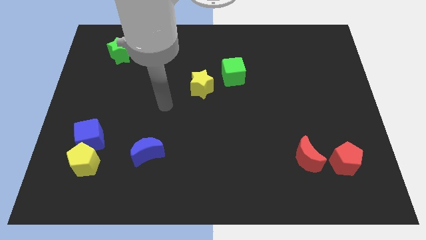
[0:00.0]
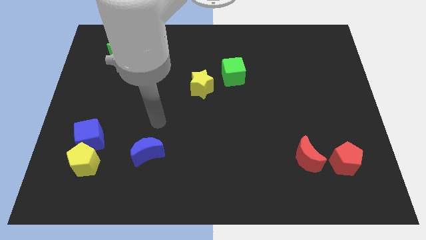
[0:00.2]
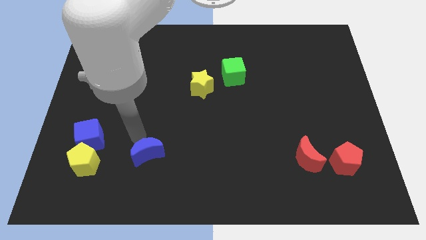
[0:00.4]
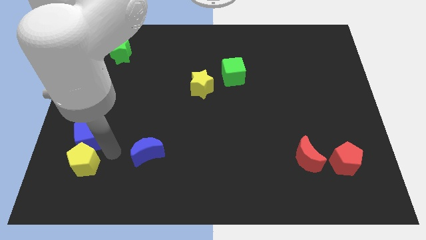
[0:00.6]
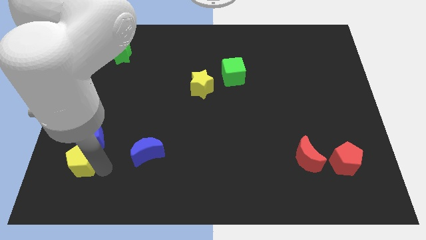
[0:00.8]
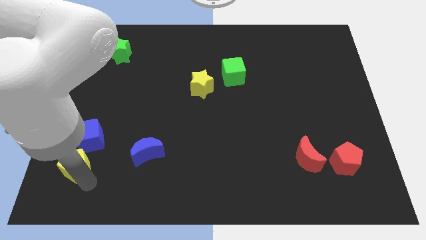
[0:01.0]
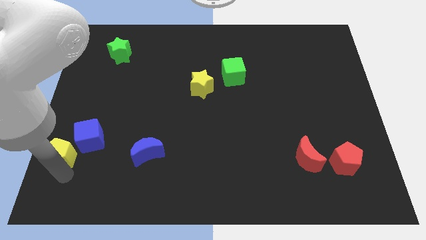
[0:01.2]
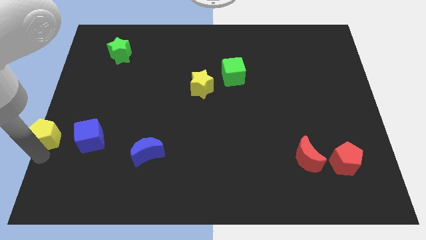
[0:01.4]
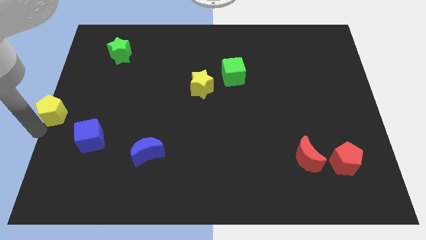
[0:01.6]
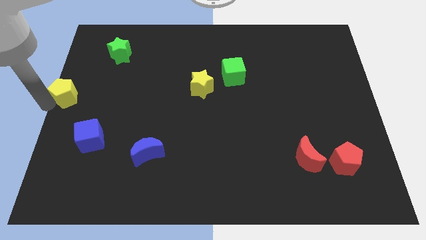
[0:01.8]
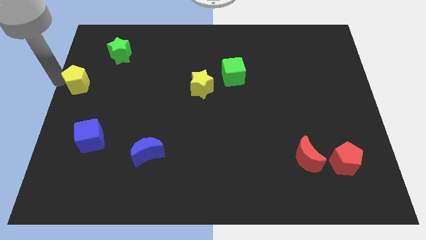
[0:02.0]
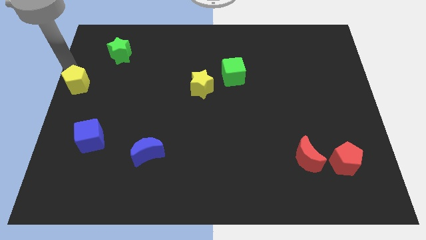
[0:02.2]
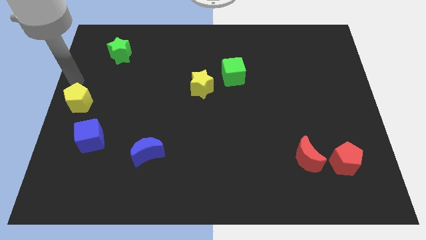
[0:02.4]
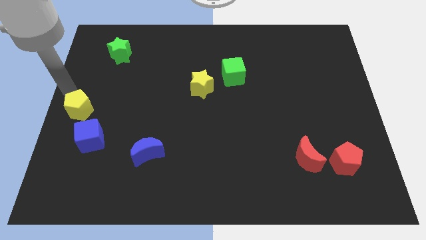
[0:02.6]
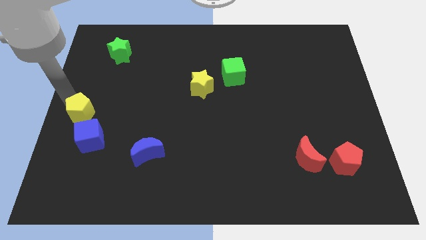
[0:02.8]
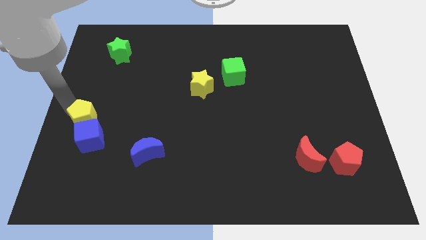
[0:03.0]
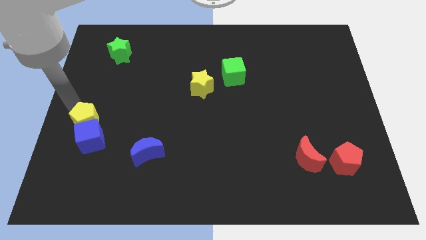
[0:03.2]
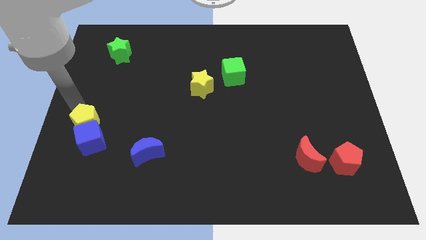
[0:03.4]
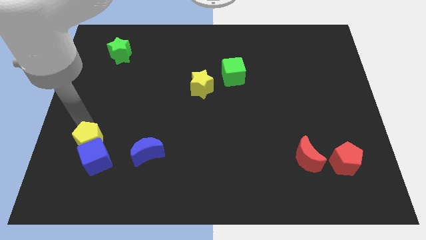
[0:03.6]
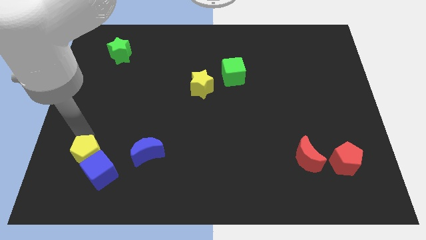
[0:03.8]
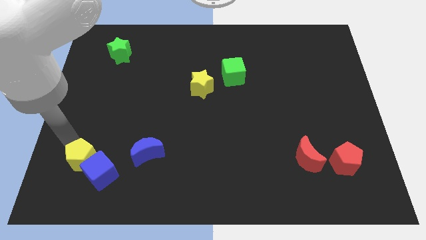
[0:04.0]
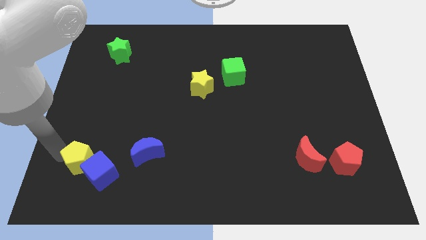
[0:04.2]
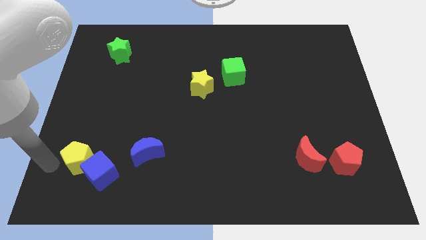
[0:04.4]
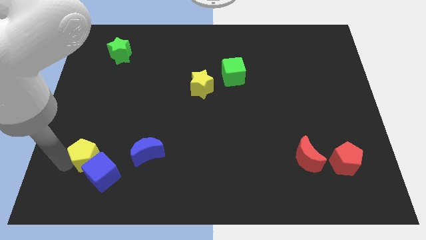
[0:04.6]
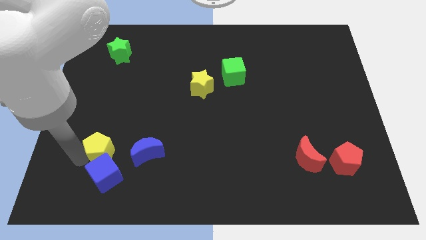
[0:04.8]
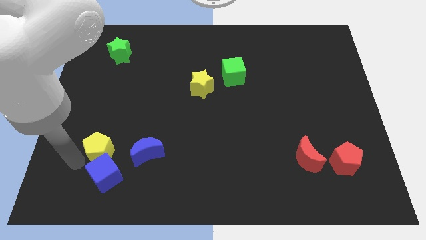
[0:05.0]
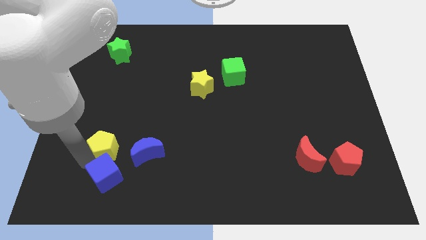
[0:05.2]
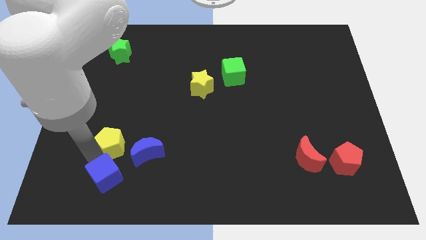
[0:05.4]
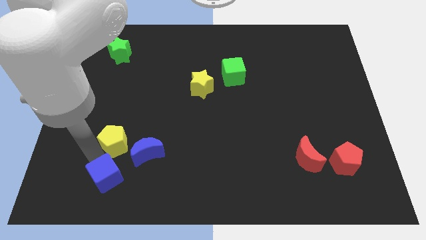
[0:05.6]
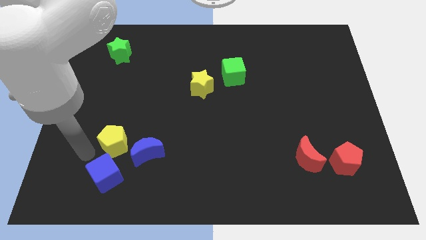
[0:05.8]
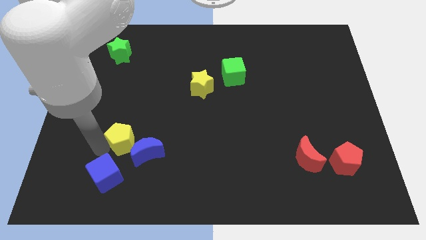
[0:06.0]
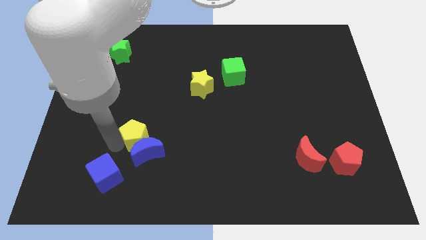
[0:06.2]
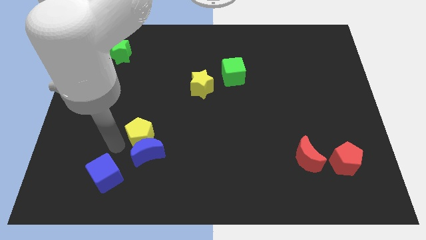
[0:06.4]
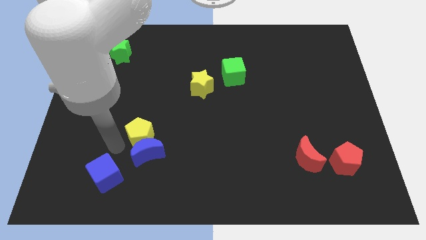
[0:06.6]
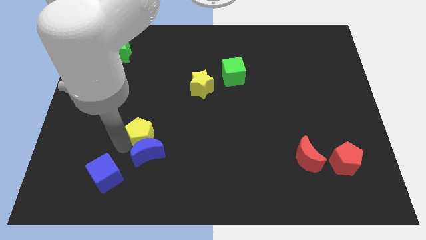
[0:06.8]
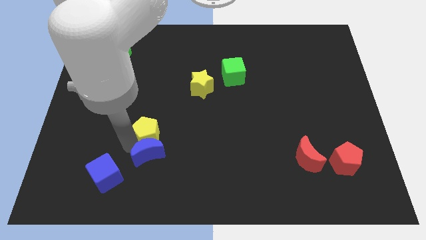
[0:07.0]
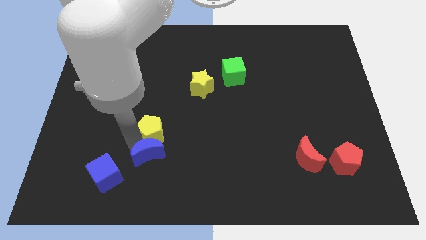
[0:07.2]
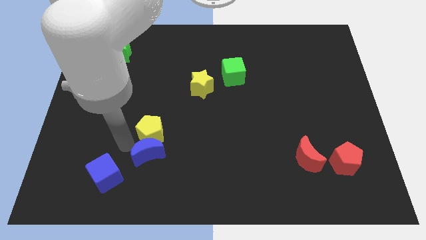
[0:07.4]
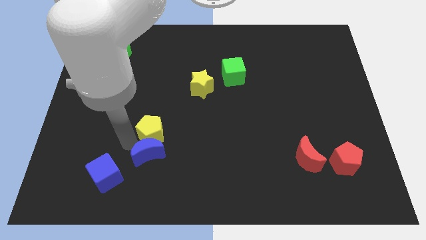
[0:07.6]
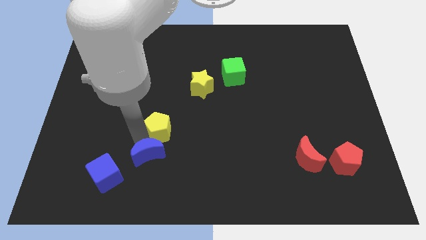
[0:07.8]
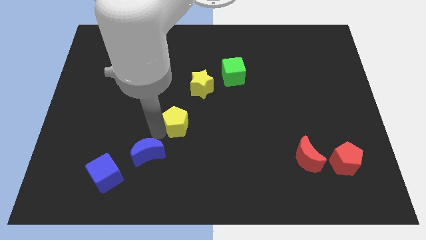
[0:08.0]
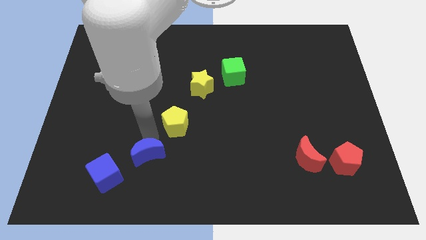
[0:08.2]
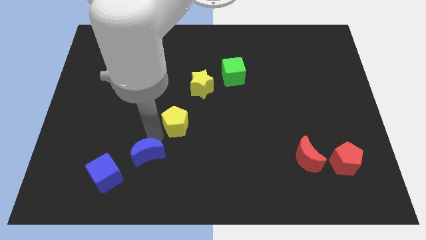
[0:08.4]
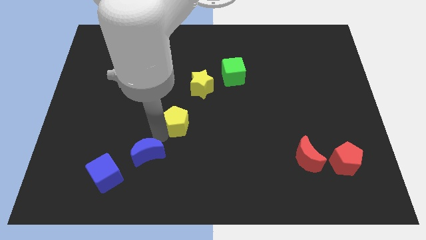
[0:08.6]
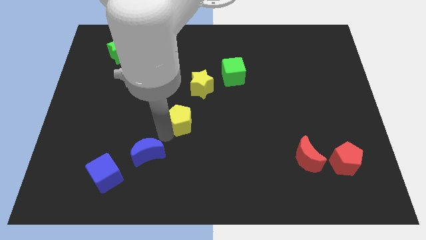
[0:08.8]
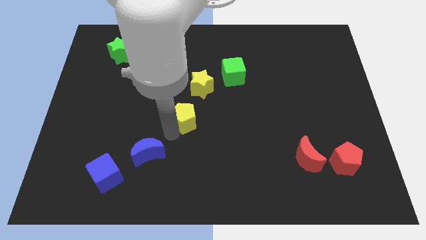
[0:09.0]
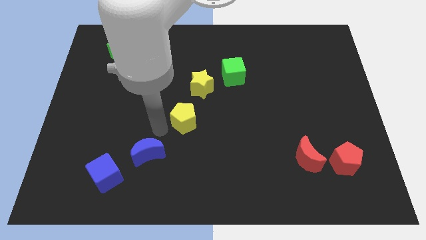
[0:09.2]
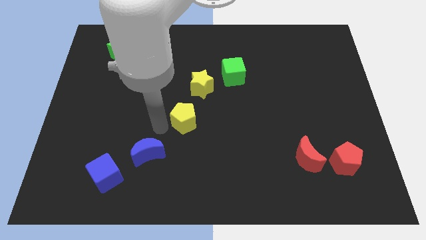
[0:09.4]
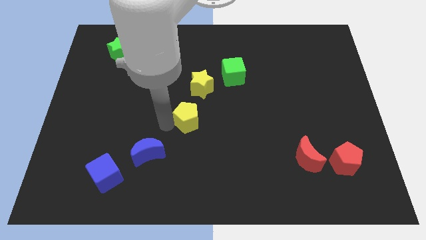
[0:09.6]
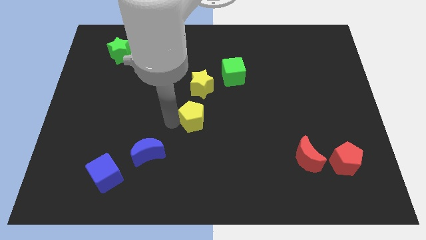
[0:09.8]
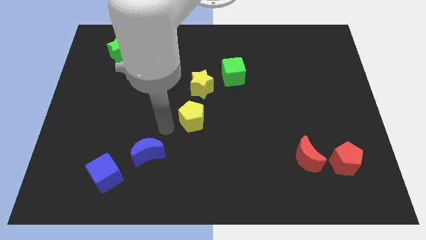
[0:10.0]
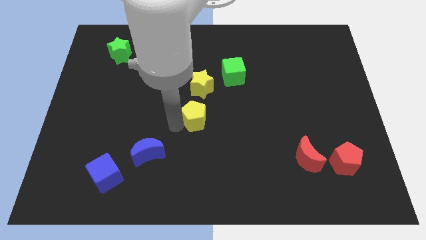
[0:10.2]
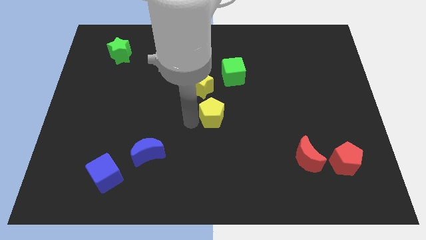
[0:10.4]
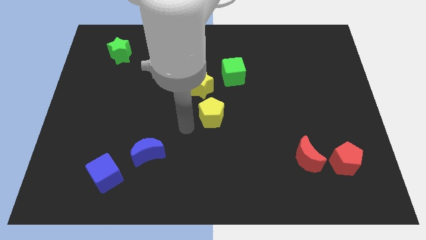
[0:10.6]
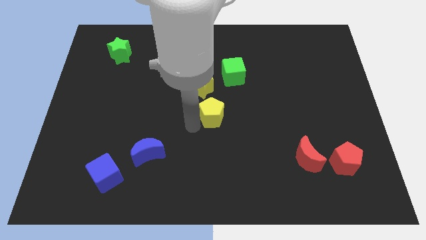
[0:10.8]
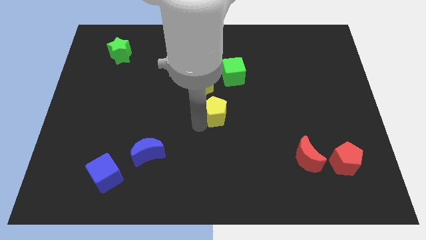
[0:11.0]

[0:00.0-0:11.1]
push the yellow pentagon to the bottom of the green cube

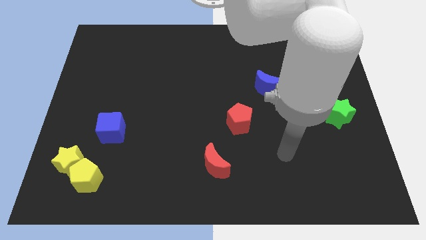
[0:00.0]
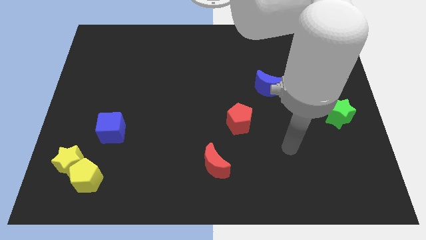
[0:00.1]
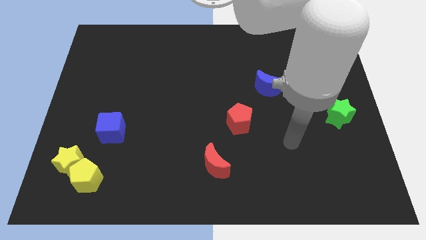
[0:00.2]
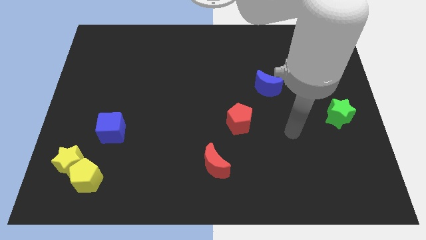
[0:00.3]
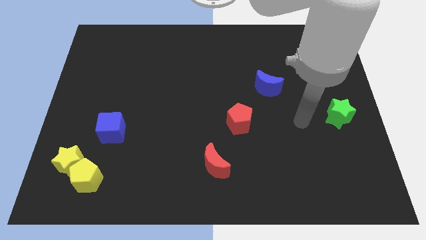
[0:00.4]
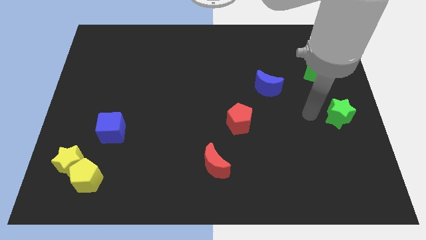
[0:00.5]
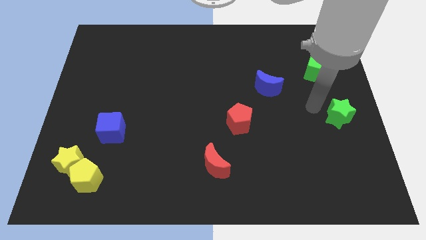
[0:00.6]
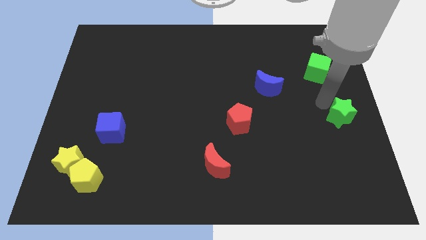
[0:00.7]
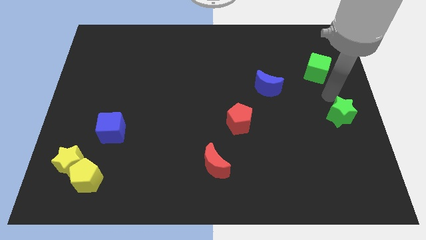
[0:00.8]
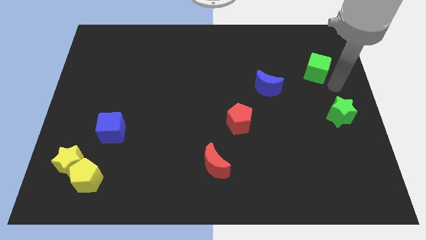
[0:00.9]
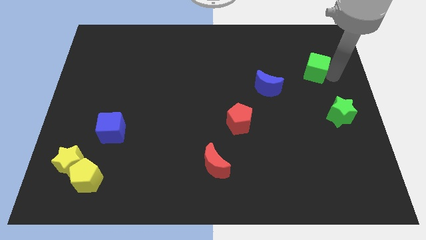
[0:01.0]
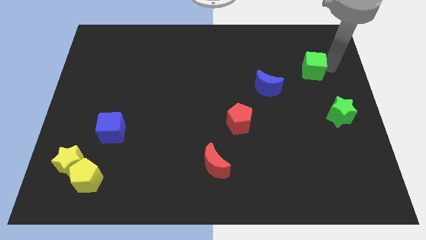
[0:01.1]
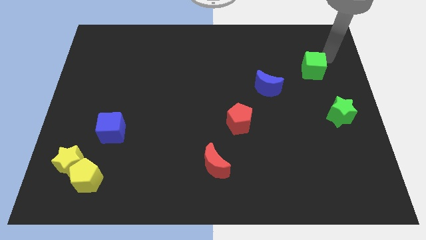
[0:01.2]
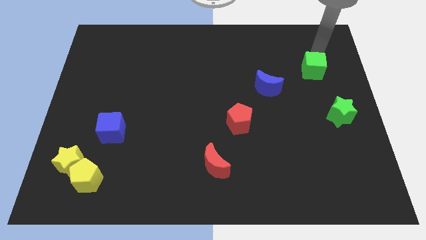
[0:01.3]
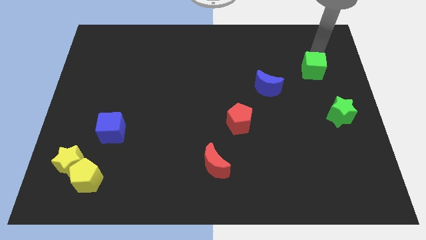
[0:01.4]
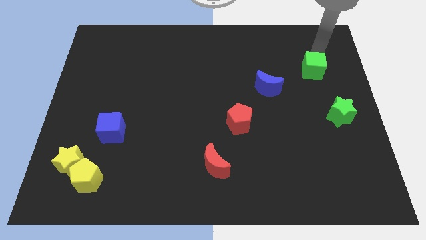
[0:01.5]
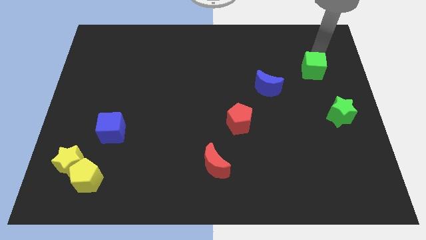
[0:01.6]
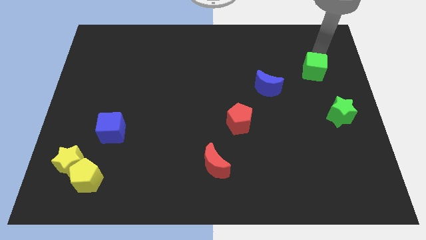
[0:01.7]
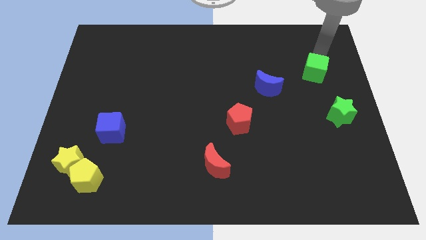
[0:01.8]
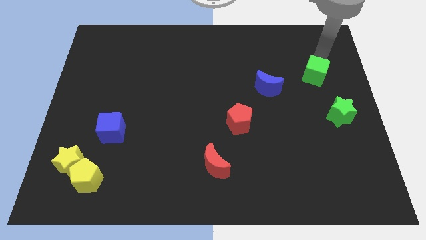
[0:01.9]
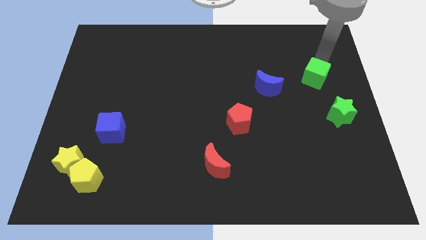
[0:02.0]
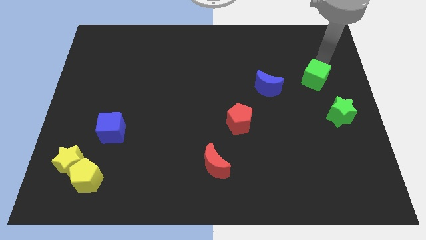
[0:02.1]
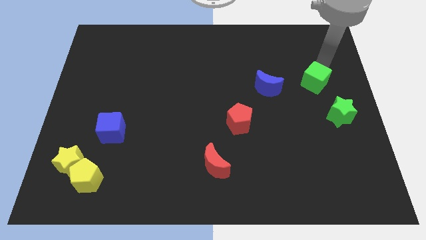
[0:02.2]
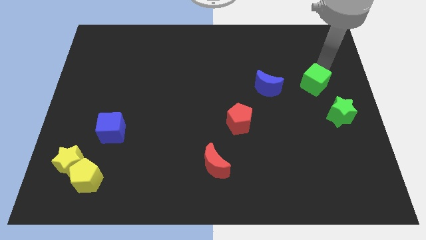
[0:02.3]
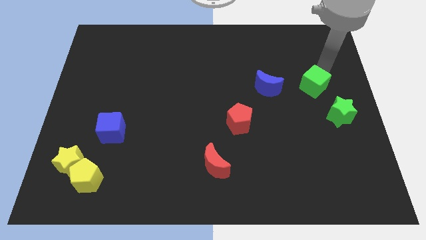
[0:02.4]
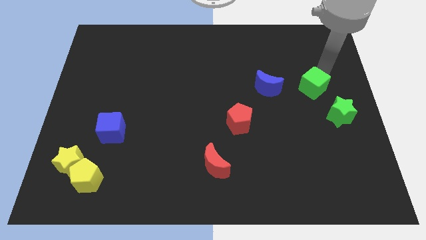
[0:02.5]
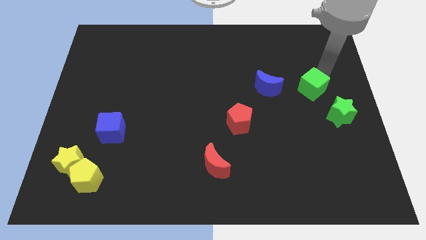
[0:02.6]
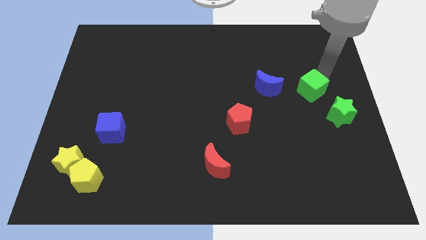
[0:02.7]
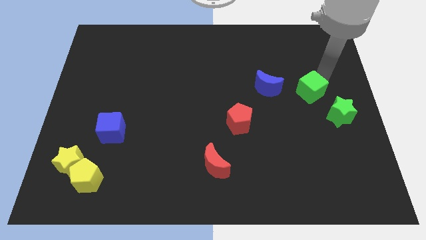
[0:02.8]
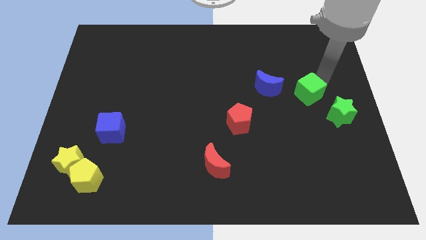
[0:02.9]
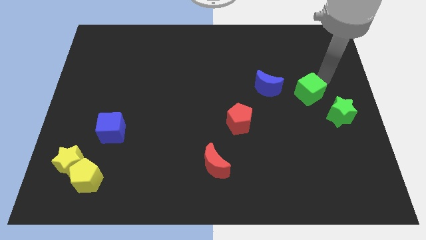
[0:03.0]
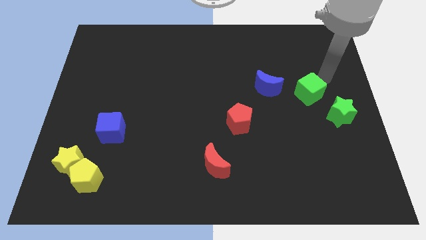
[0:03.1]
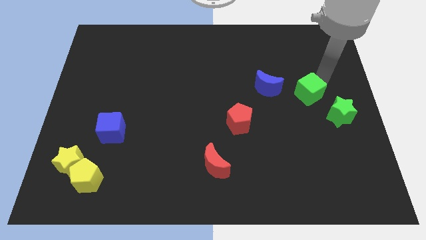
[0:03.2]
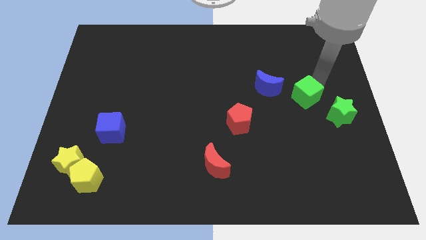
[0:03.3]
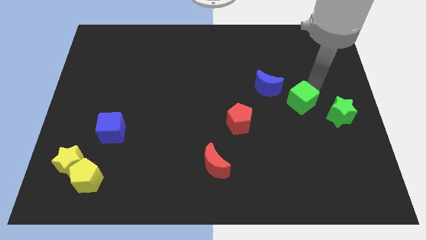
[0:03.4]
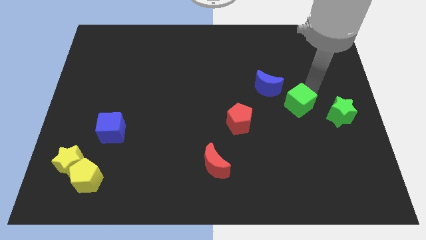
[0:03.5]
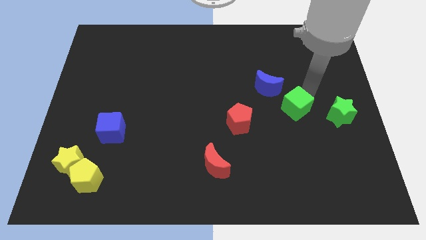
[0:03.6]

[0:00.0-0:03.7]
slide the green cube right of the red pentagon
